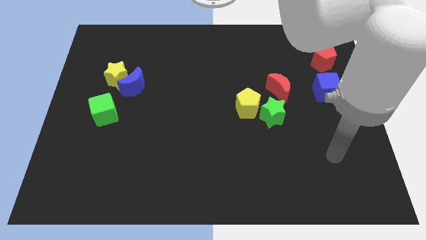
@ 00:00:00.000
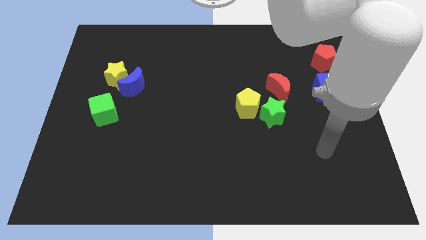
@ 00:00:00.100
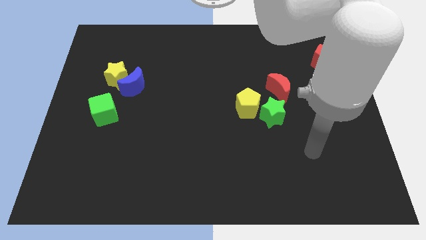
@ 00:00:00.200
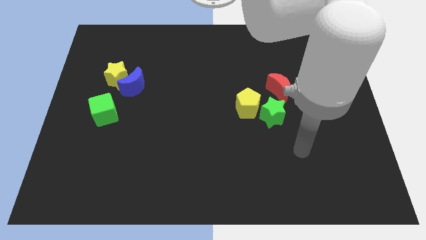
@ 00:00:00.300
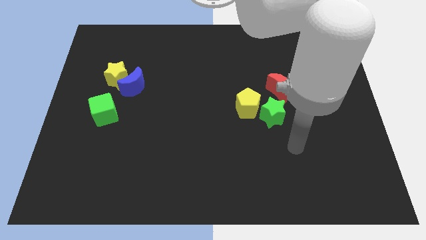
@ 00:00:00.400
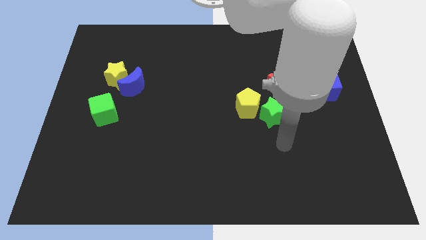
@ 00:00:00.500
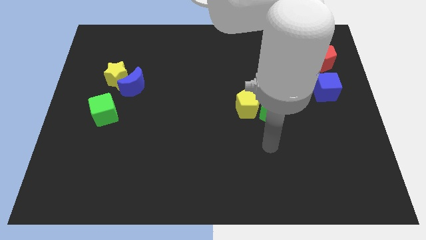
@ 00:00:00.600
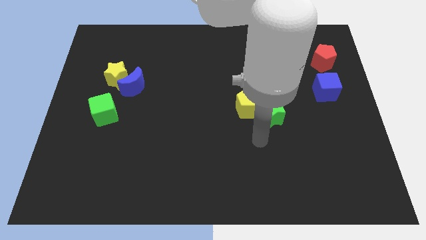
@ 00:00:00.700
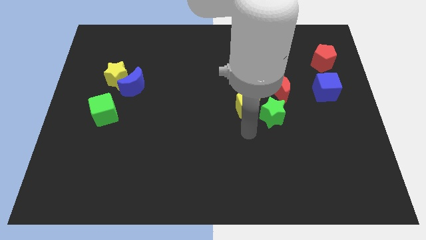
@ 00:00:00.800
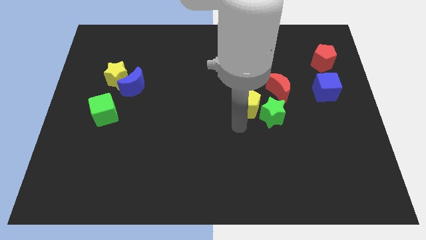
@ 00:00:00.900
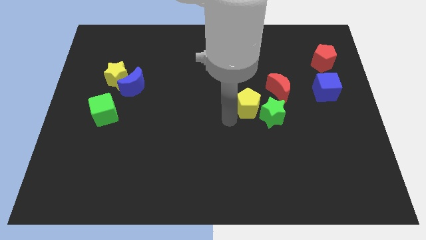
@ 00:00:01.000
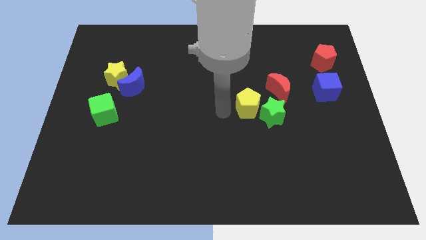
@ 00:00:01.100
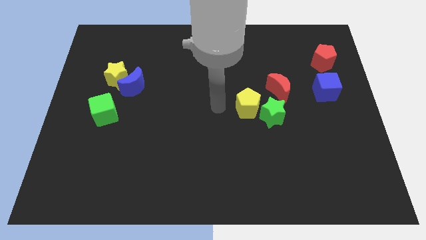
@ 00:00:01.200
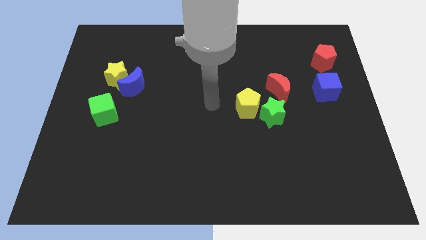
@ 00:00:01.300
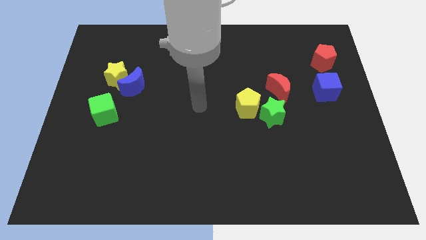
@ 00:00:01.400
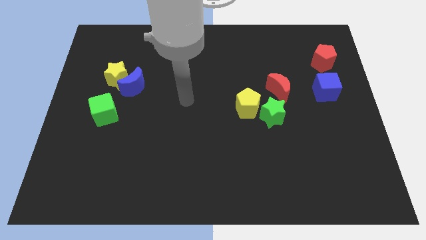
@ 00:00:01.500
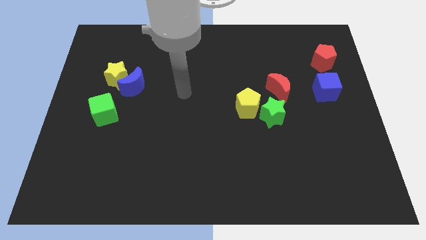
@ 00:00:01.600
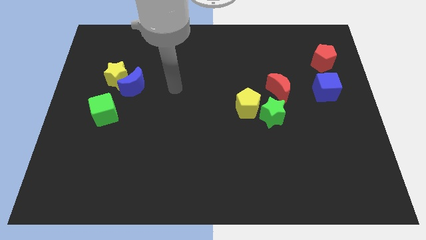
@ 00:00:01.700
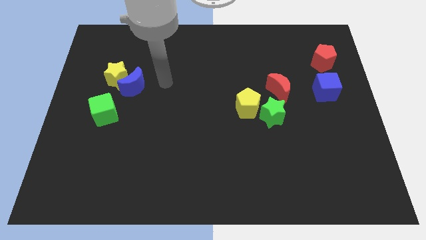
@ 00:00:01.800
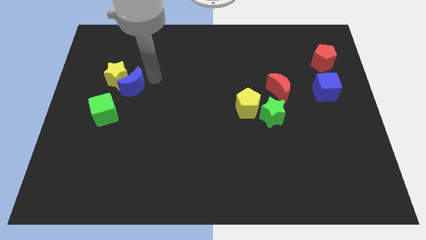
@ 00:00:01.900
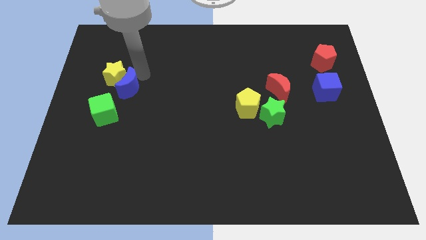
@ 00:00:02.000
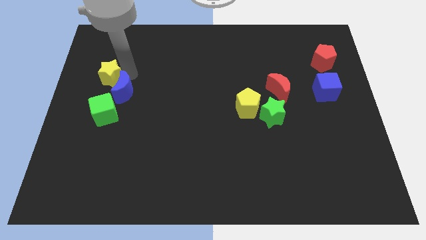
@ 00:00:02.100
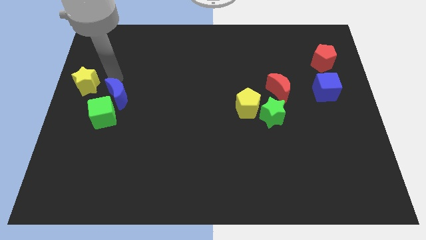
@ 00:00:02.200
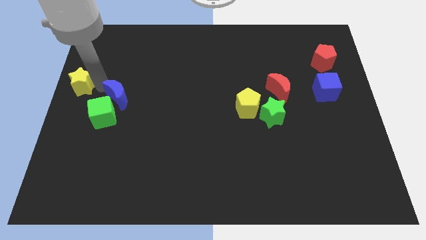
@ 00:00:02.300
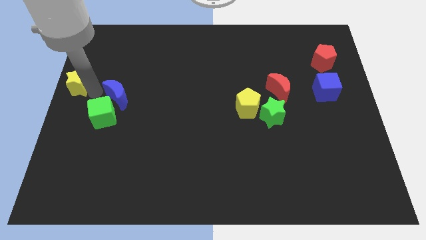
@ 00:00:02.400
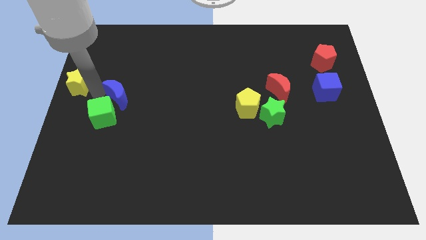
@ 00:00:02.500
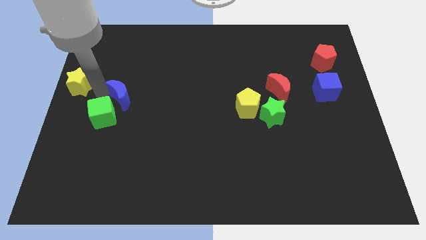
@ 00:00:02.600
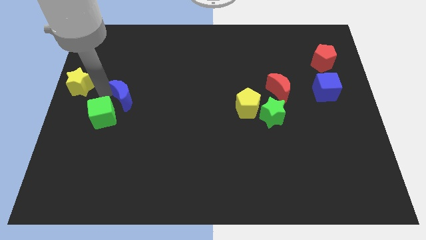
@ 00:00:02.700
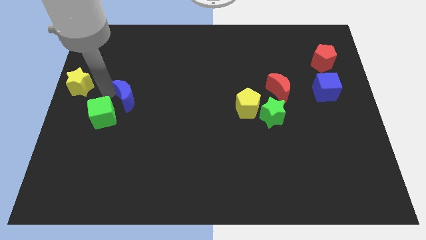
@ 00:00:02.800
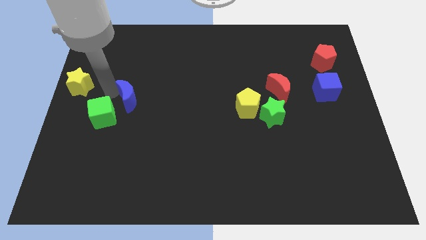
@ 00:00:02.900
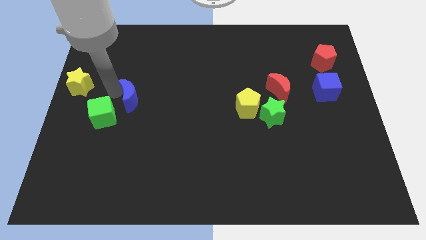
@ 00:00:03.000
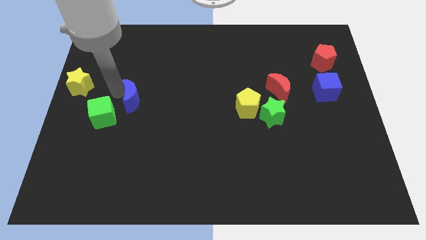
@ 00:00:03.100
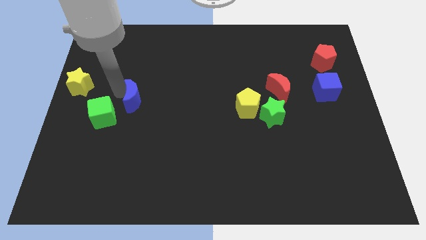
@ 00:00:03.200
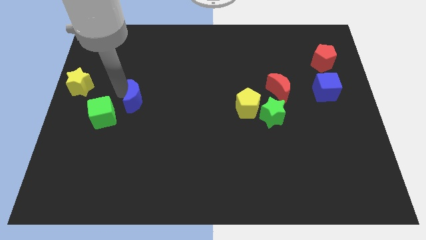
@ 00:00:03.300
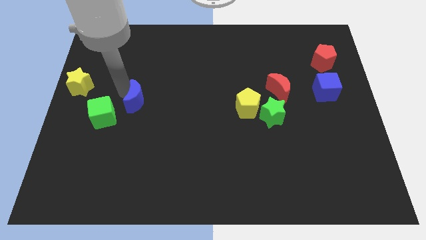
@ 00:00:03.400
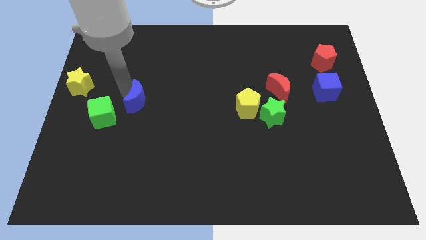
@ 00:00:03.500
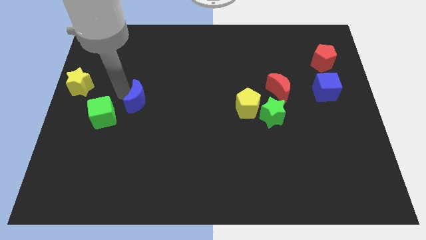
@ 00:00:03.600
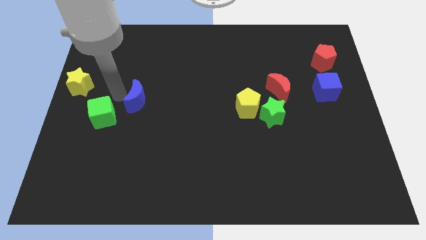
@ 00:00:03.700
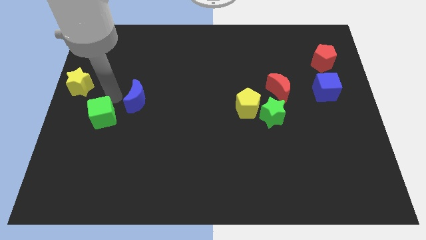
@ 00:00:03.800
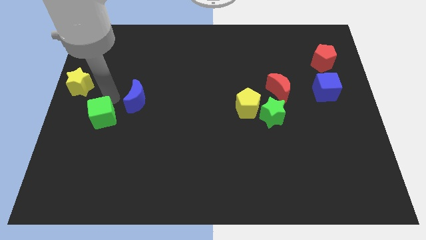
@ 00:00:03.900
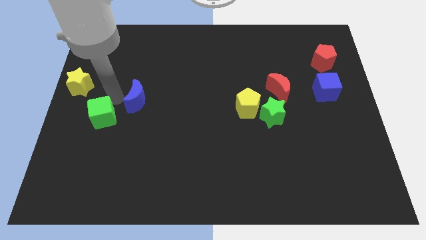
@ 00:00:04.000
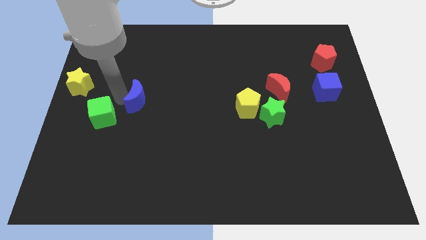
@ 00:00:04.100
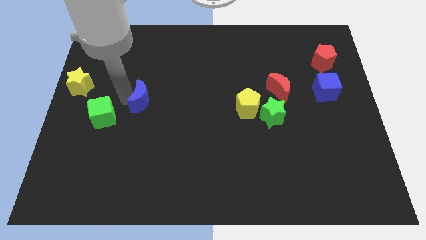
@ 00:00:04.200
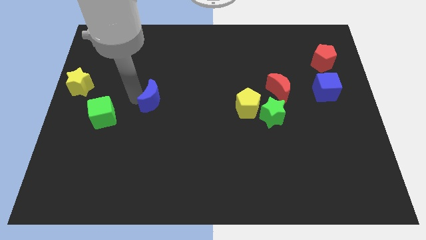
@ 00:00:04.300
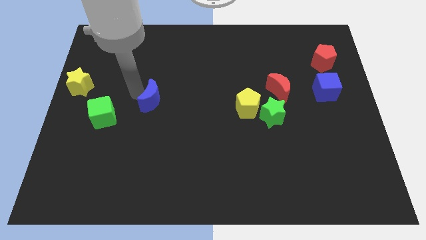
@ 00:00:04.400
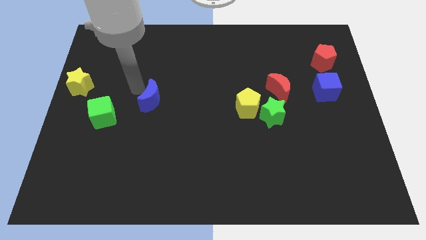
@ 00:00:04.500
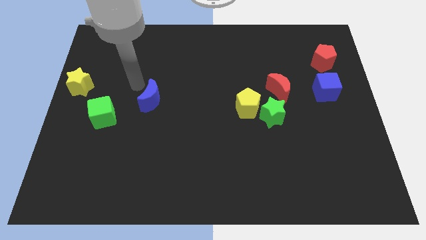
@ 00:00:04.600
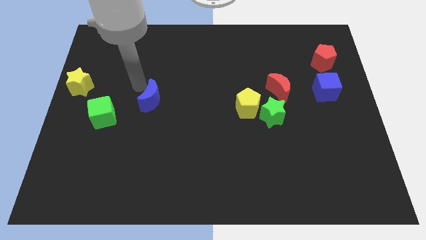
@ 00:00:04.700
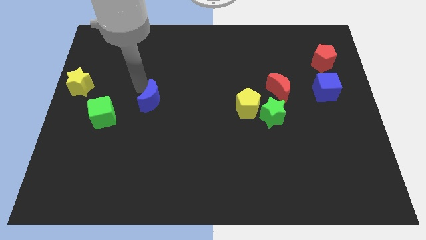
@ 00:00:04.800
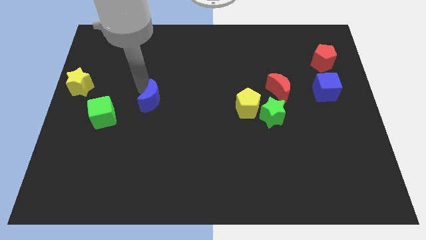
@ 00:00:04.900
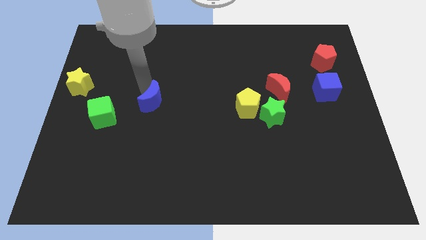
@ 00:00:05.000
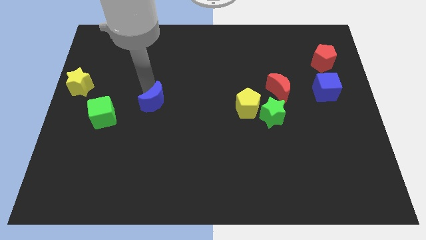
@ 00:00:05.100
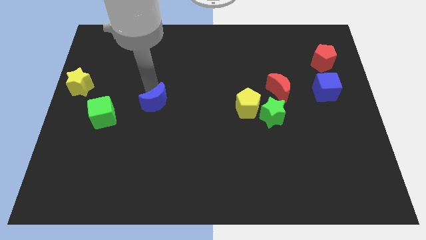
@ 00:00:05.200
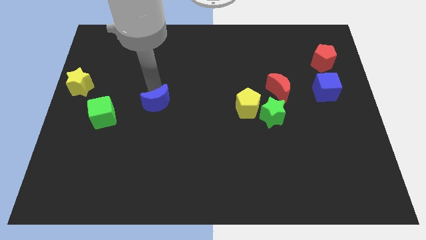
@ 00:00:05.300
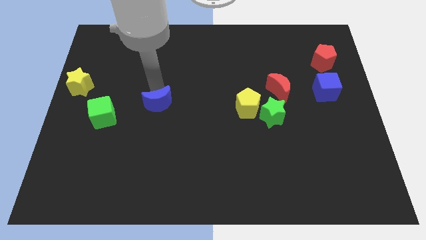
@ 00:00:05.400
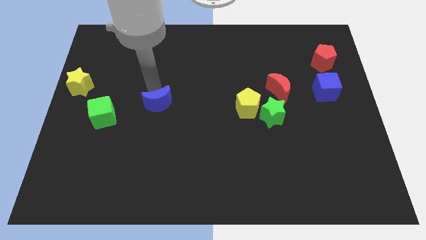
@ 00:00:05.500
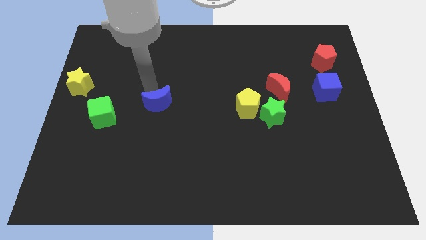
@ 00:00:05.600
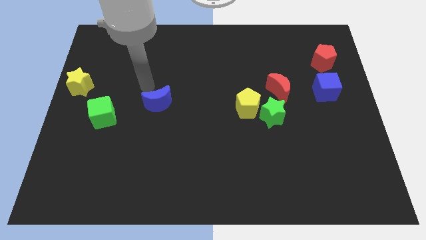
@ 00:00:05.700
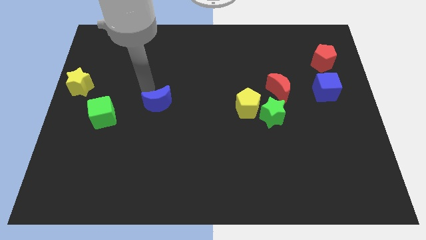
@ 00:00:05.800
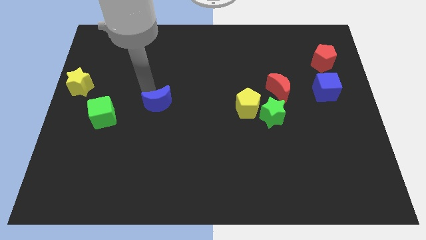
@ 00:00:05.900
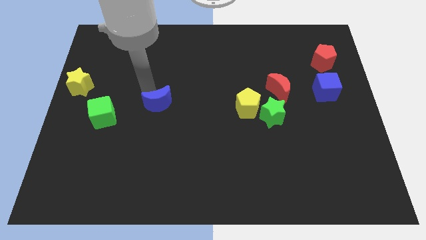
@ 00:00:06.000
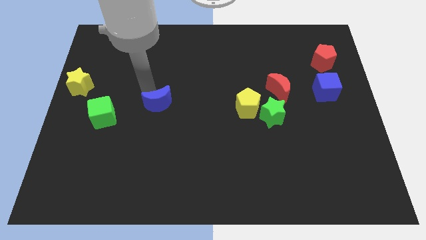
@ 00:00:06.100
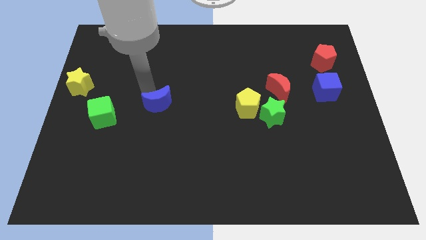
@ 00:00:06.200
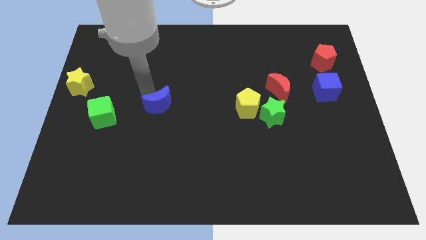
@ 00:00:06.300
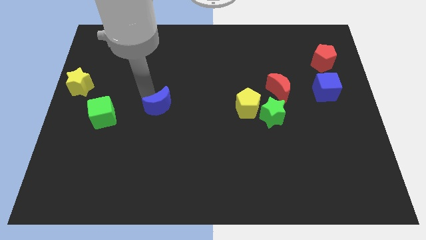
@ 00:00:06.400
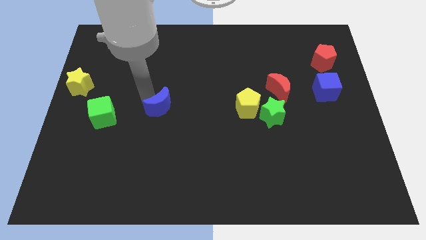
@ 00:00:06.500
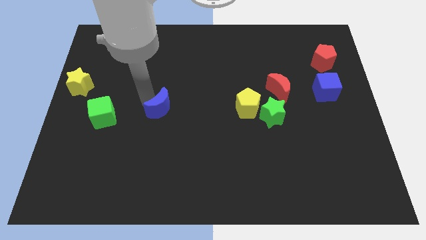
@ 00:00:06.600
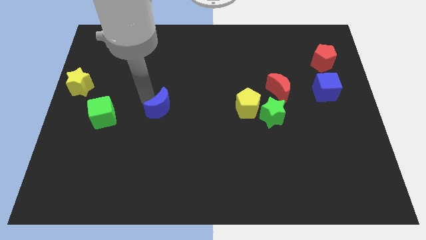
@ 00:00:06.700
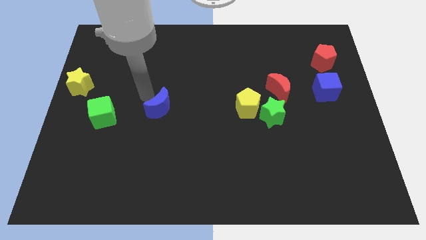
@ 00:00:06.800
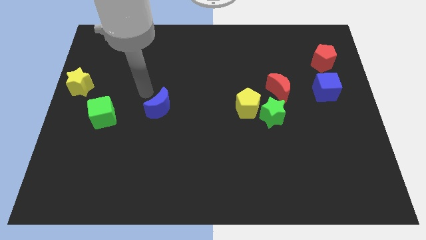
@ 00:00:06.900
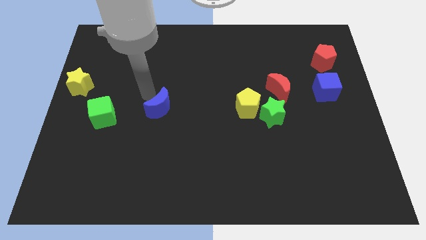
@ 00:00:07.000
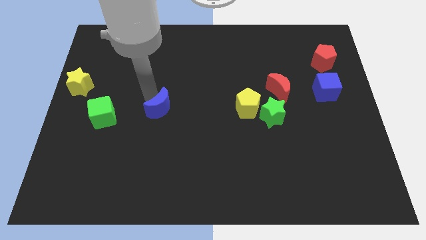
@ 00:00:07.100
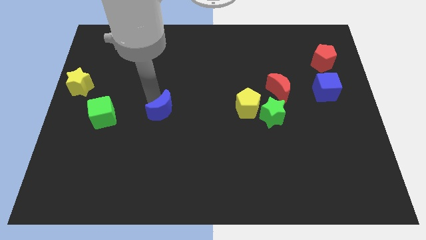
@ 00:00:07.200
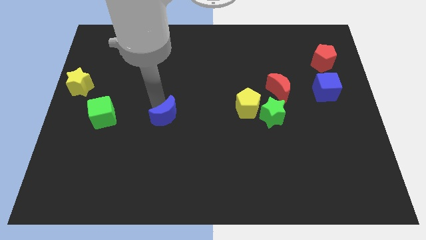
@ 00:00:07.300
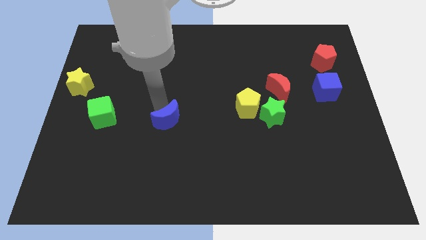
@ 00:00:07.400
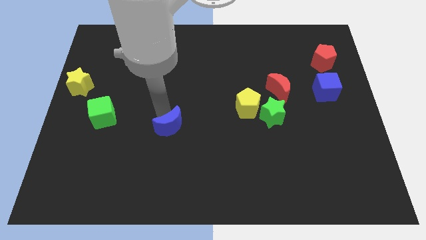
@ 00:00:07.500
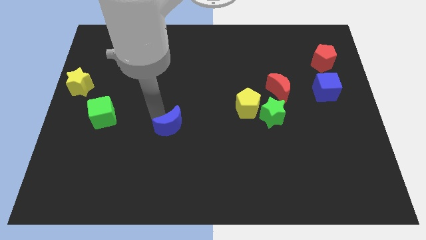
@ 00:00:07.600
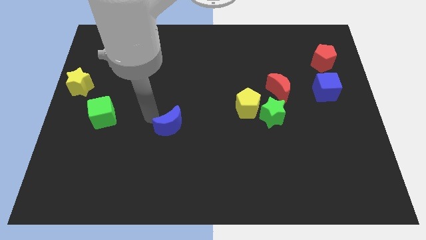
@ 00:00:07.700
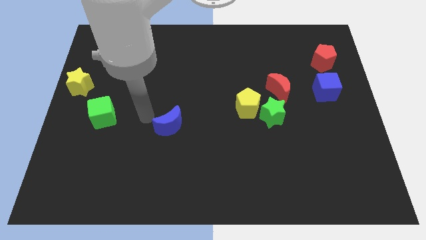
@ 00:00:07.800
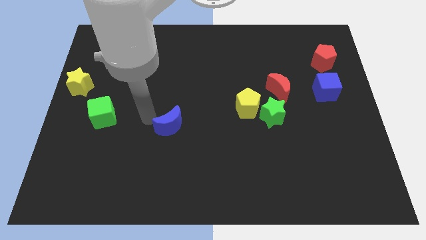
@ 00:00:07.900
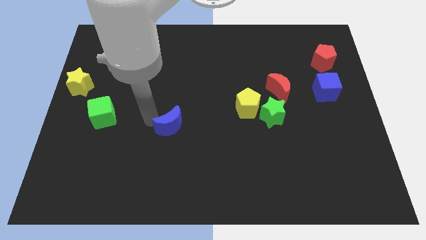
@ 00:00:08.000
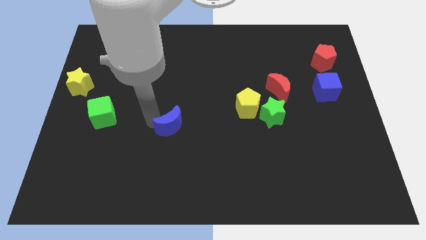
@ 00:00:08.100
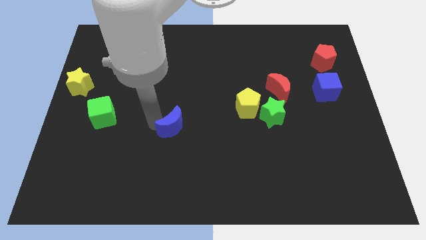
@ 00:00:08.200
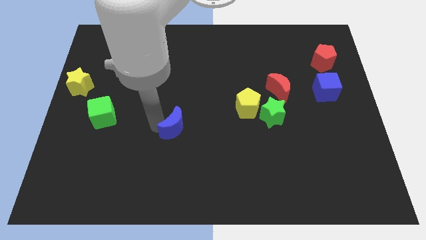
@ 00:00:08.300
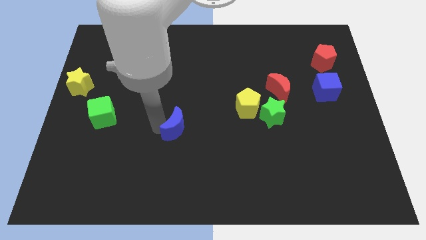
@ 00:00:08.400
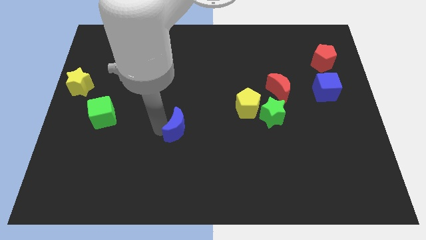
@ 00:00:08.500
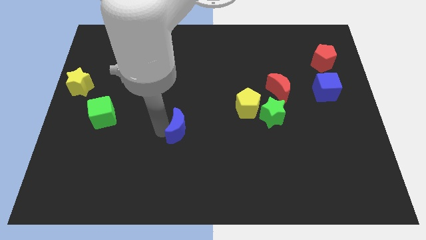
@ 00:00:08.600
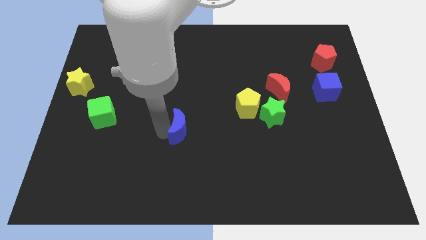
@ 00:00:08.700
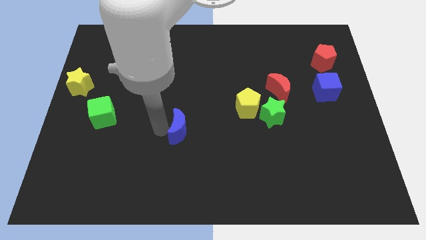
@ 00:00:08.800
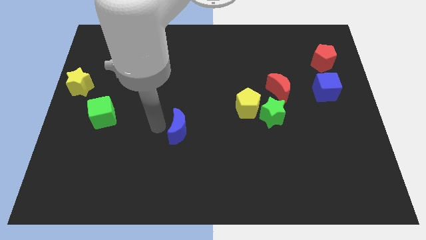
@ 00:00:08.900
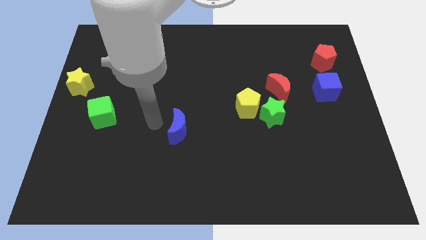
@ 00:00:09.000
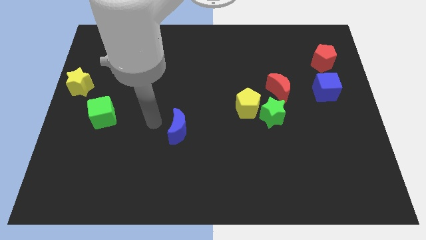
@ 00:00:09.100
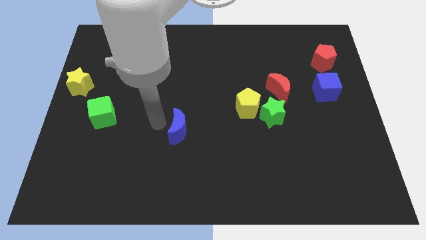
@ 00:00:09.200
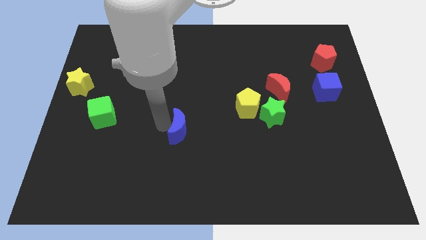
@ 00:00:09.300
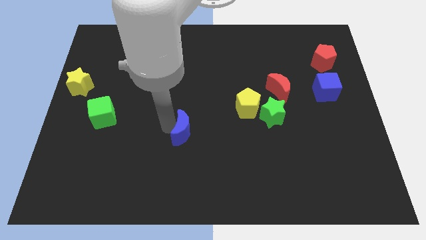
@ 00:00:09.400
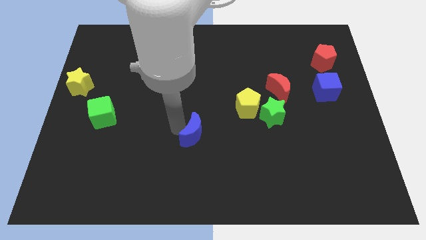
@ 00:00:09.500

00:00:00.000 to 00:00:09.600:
slide the blue moon downwards and right
